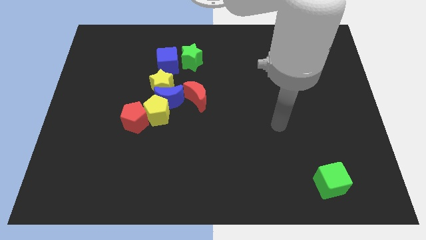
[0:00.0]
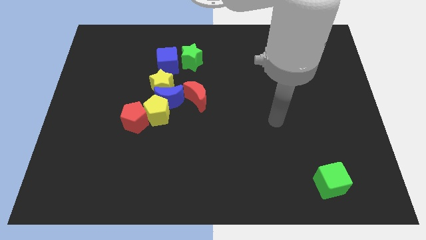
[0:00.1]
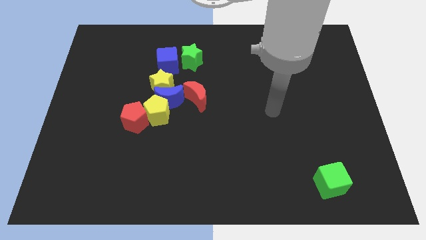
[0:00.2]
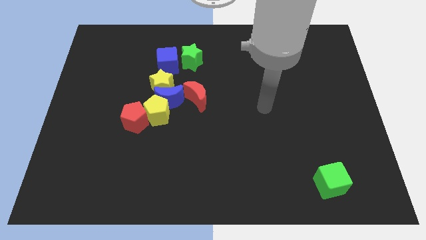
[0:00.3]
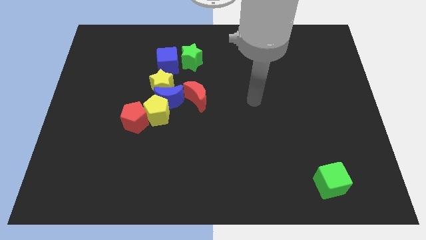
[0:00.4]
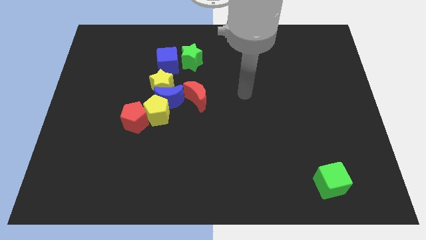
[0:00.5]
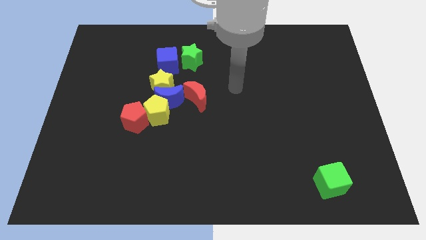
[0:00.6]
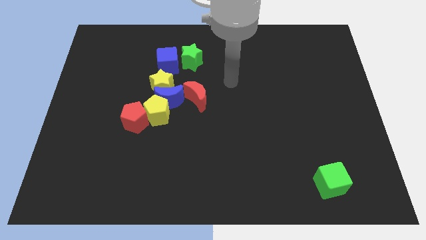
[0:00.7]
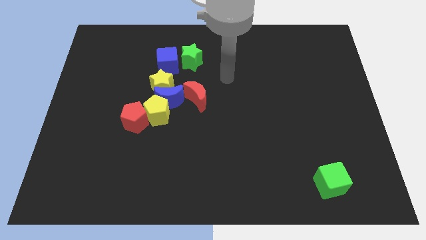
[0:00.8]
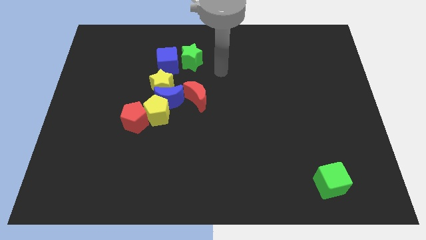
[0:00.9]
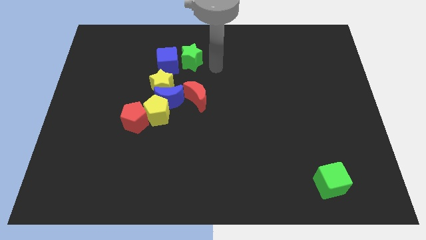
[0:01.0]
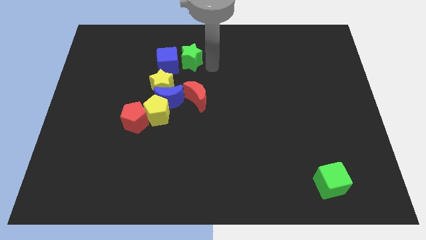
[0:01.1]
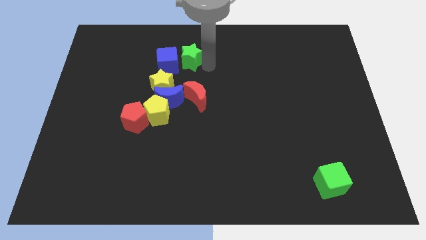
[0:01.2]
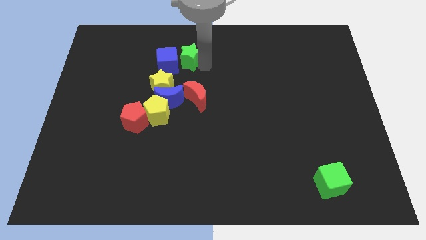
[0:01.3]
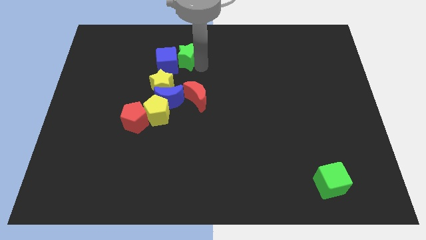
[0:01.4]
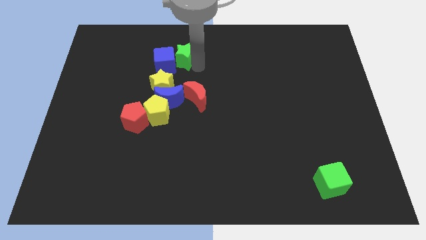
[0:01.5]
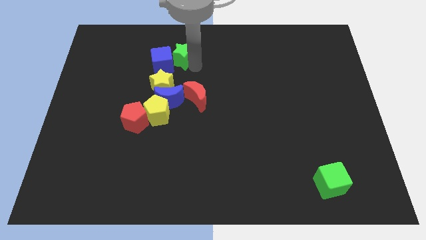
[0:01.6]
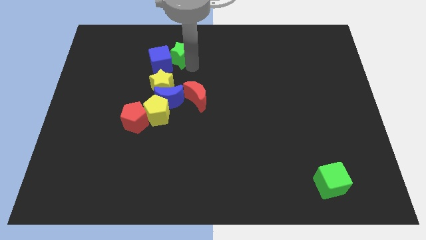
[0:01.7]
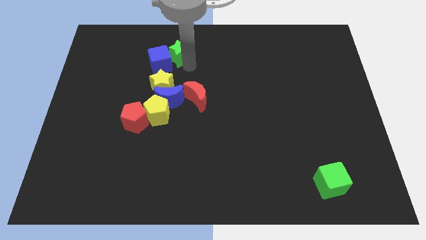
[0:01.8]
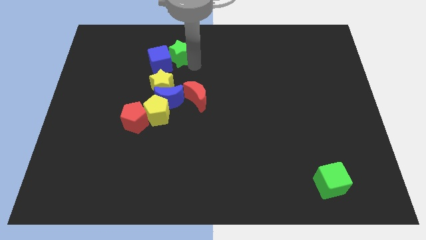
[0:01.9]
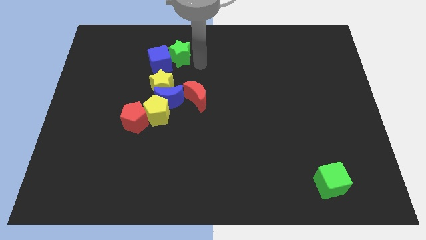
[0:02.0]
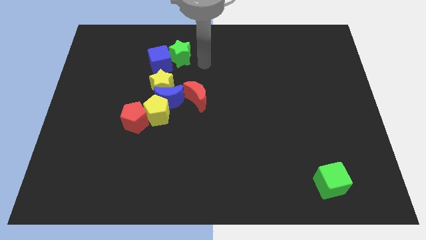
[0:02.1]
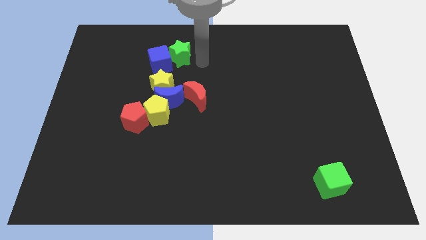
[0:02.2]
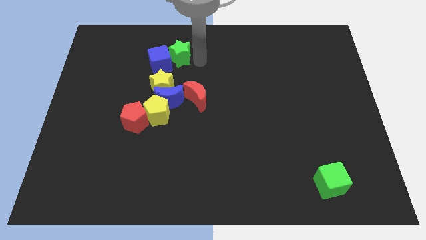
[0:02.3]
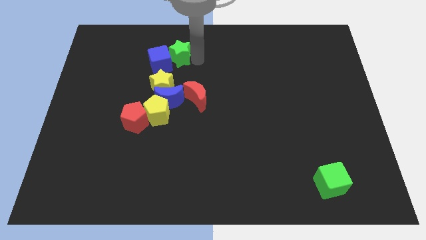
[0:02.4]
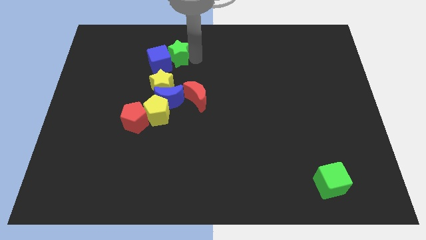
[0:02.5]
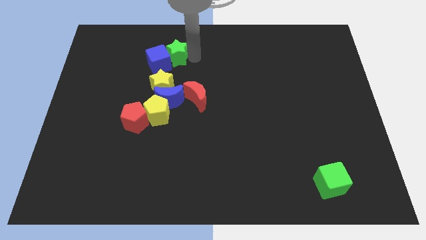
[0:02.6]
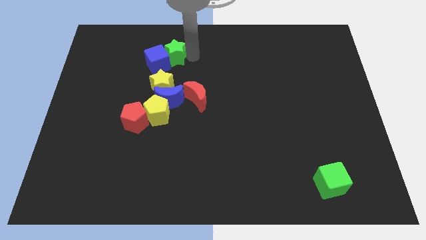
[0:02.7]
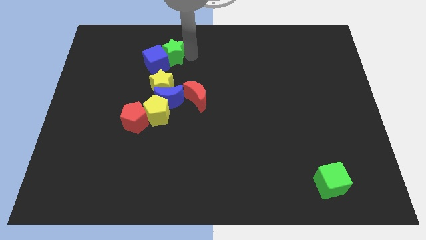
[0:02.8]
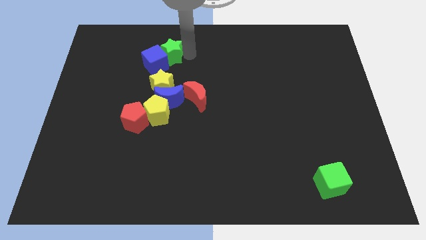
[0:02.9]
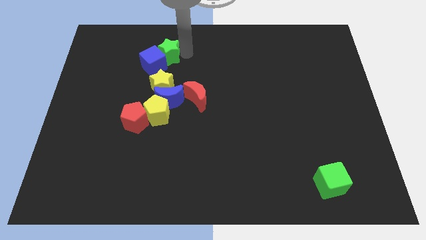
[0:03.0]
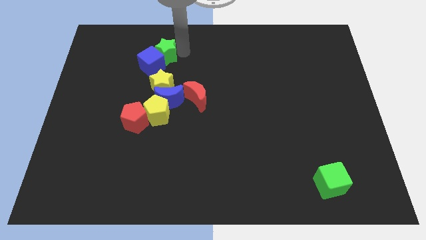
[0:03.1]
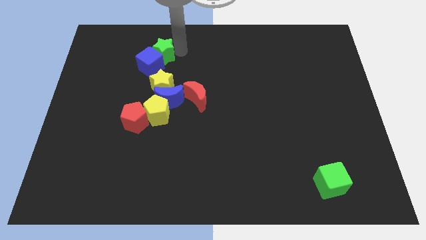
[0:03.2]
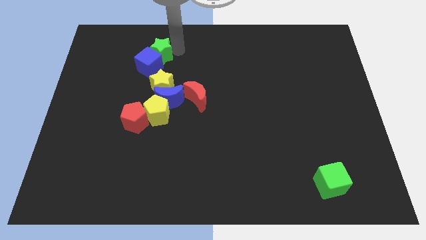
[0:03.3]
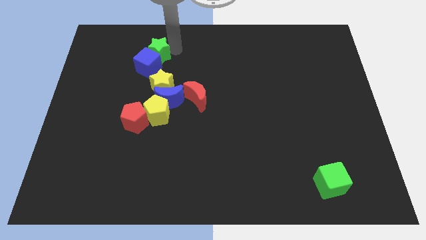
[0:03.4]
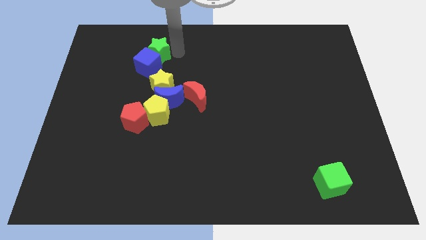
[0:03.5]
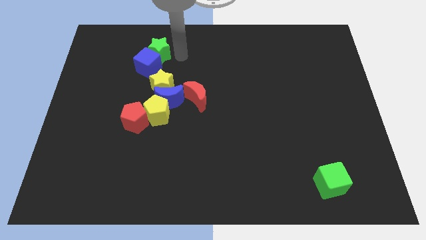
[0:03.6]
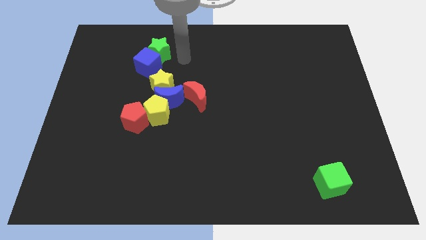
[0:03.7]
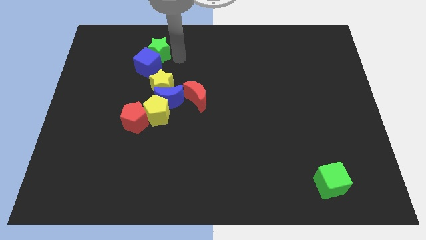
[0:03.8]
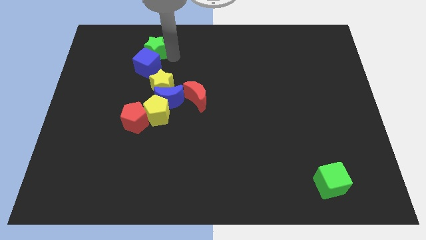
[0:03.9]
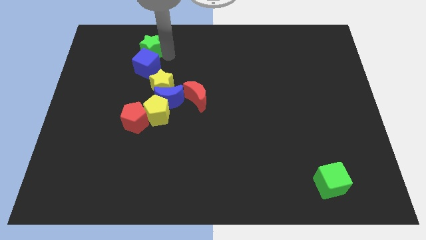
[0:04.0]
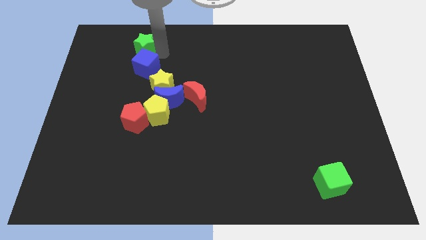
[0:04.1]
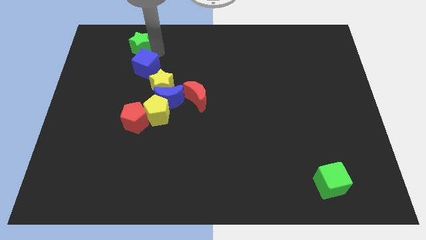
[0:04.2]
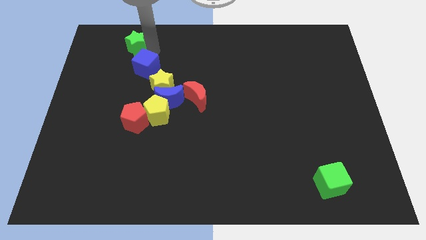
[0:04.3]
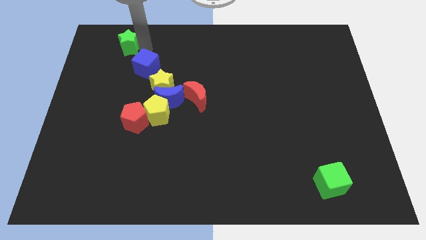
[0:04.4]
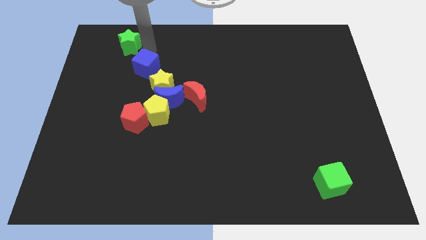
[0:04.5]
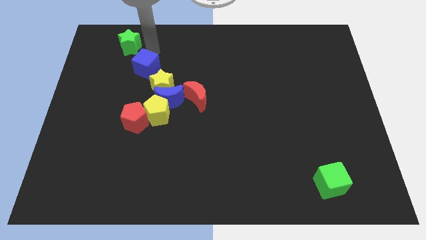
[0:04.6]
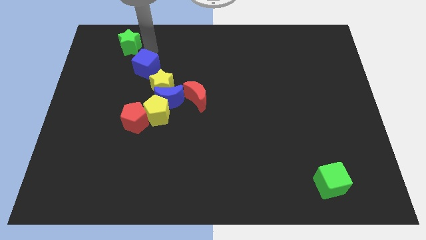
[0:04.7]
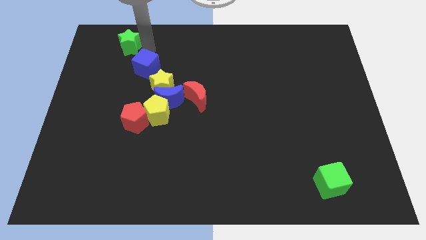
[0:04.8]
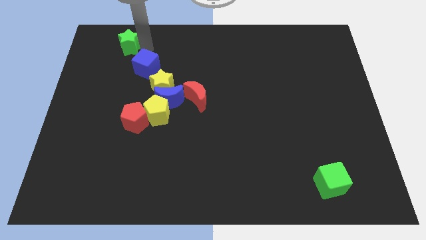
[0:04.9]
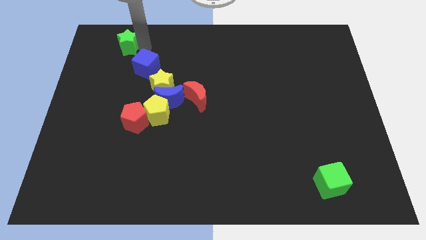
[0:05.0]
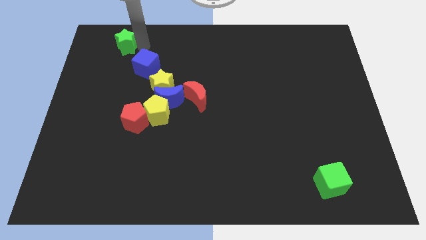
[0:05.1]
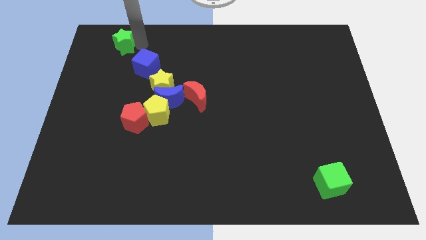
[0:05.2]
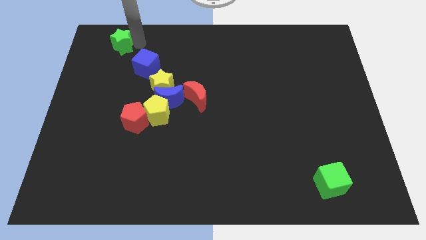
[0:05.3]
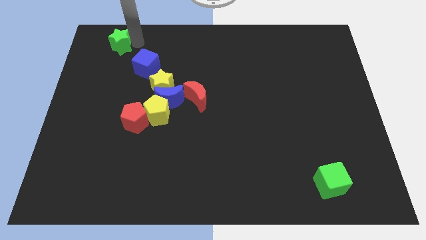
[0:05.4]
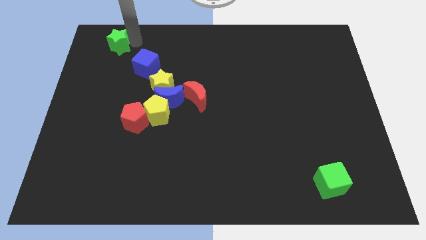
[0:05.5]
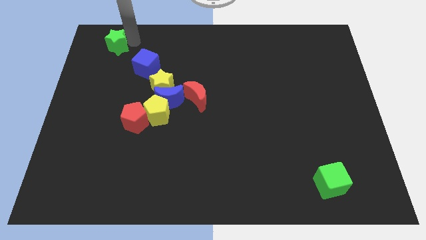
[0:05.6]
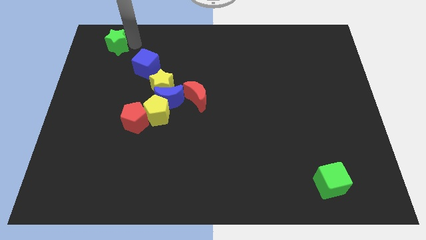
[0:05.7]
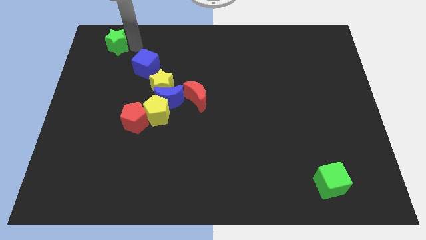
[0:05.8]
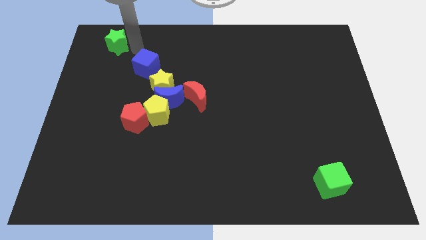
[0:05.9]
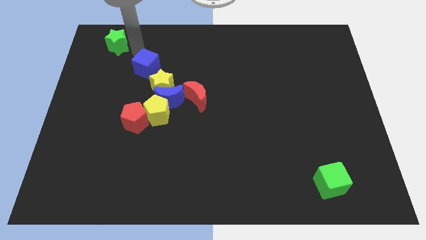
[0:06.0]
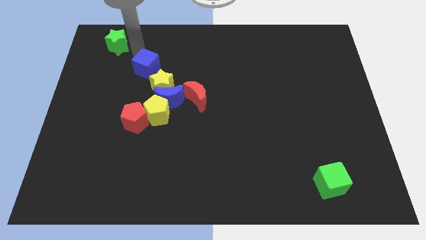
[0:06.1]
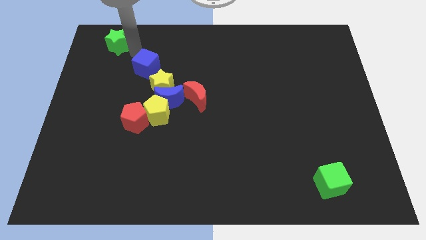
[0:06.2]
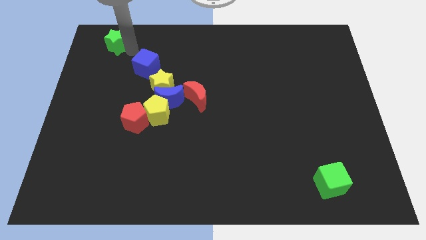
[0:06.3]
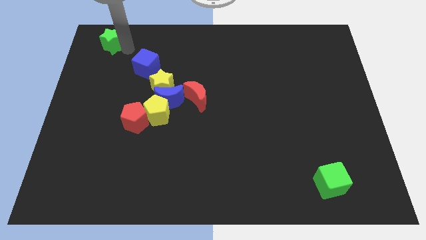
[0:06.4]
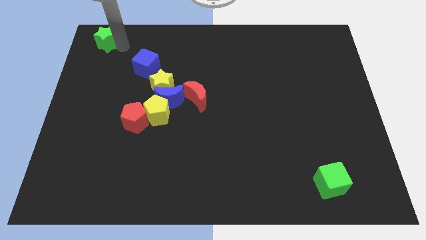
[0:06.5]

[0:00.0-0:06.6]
slide the green star to the top left of the board
